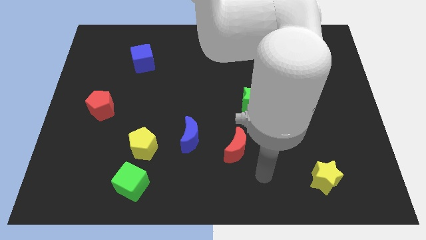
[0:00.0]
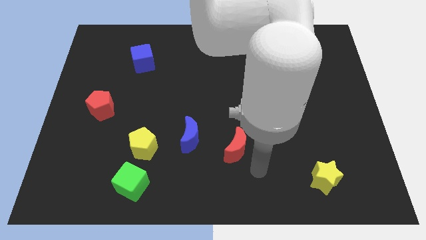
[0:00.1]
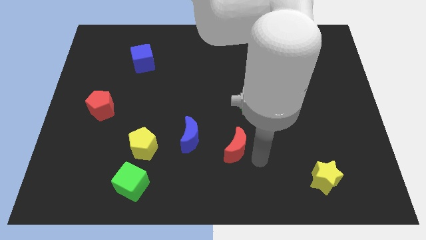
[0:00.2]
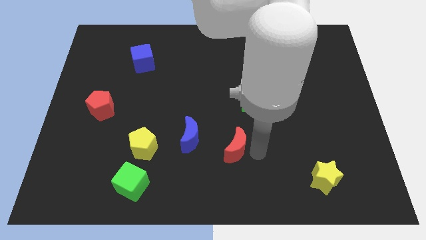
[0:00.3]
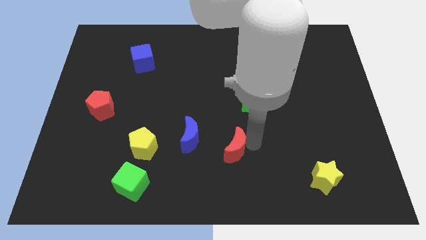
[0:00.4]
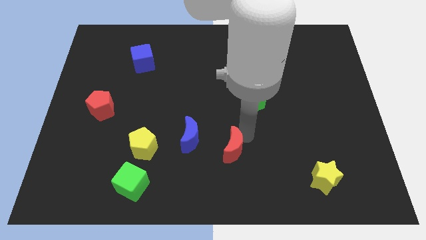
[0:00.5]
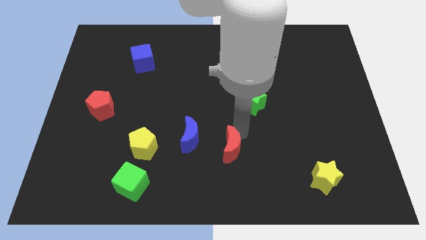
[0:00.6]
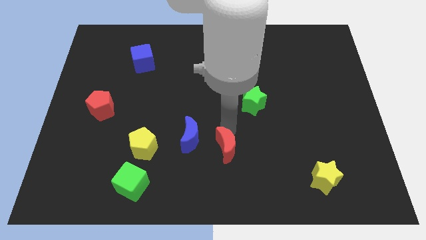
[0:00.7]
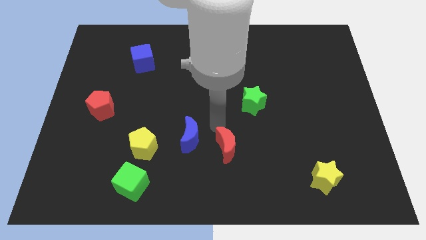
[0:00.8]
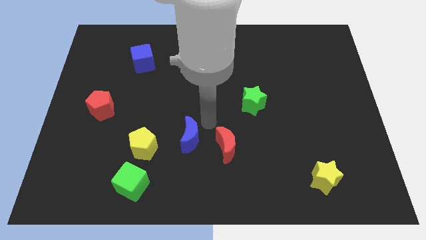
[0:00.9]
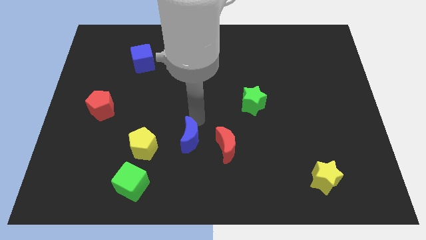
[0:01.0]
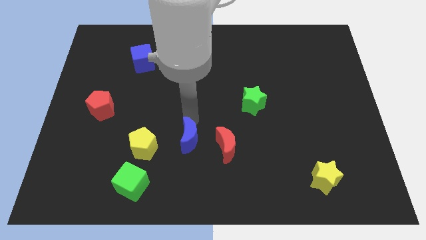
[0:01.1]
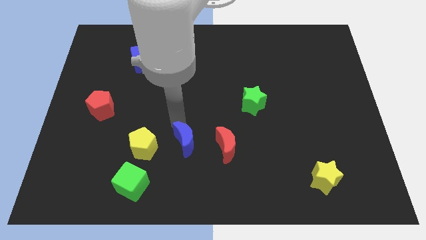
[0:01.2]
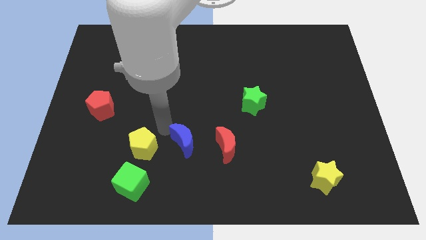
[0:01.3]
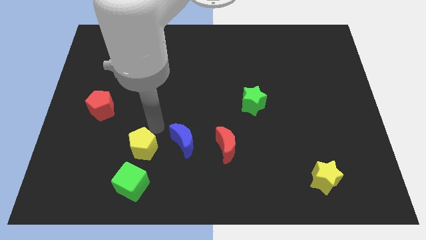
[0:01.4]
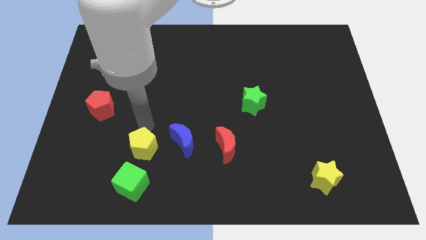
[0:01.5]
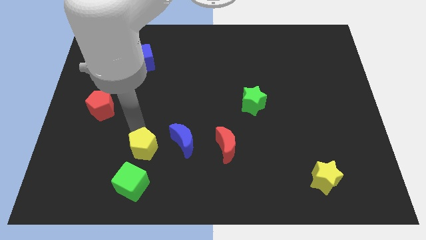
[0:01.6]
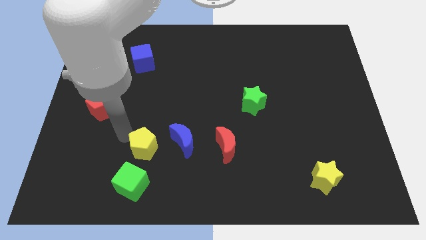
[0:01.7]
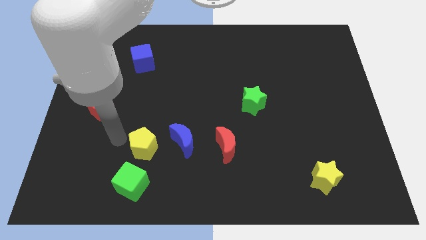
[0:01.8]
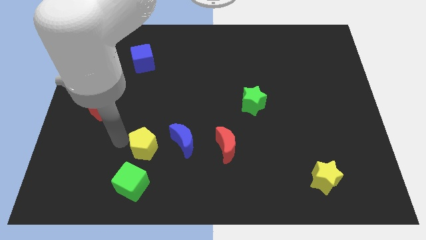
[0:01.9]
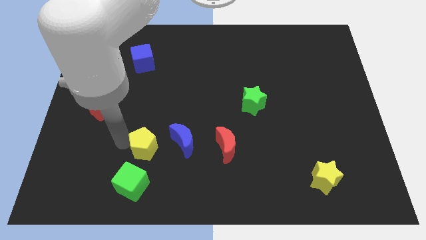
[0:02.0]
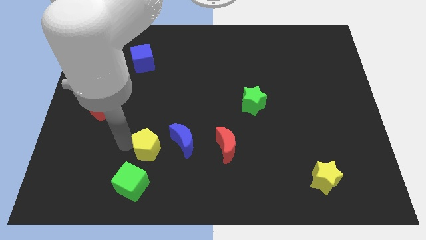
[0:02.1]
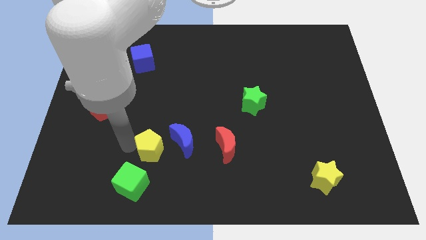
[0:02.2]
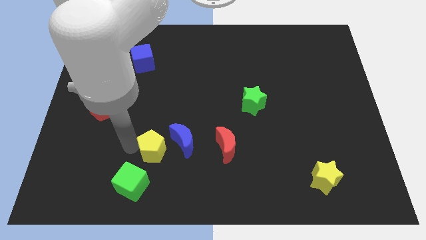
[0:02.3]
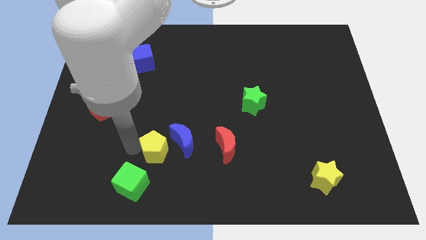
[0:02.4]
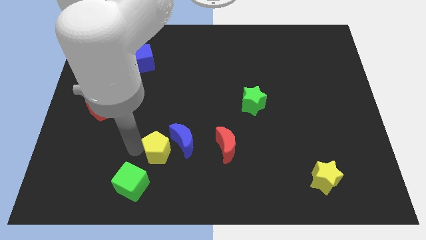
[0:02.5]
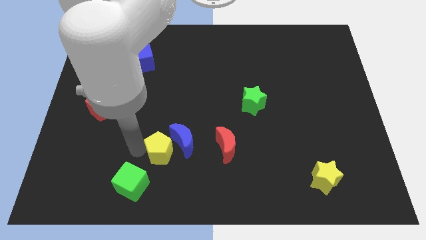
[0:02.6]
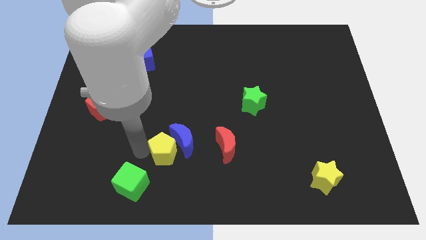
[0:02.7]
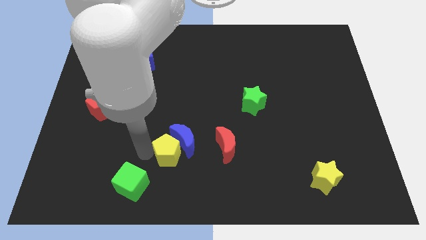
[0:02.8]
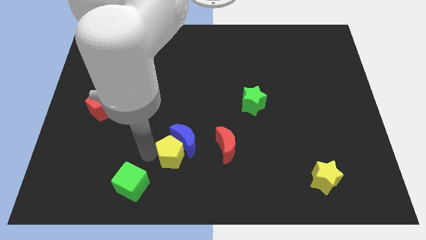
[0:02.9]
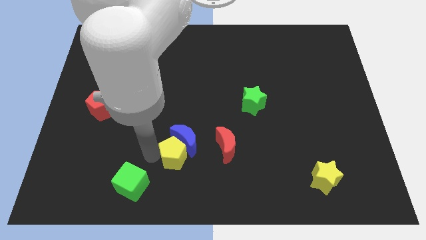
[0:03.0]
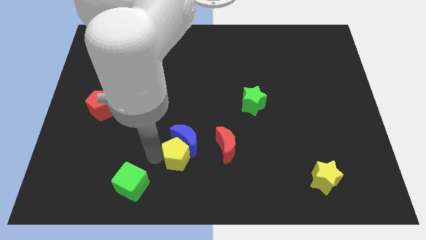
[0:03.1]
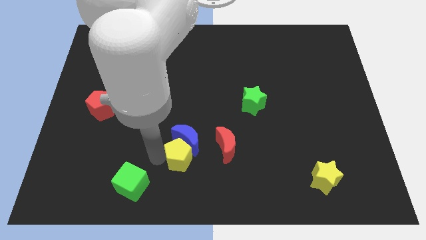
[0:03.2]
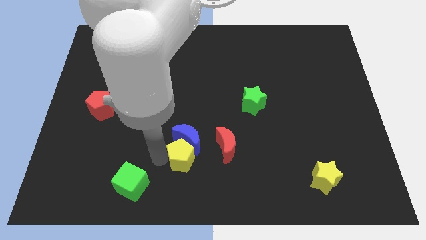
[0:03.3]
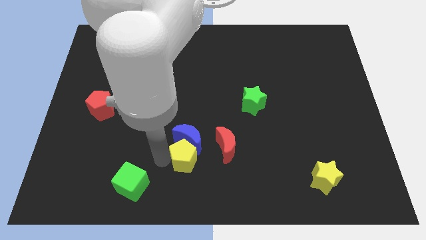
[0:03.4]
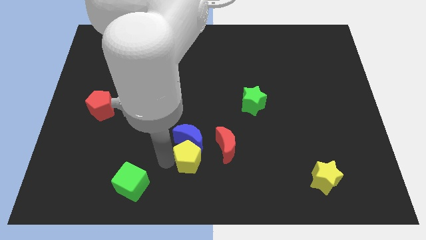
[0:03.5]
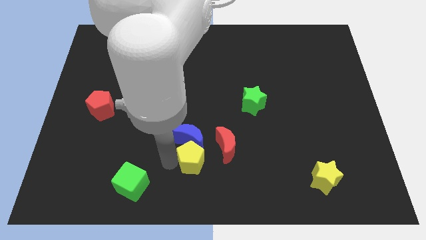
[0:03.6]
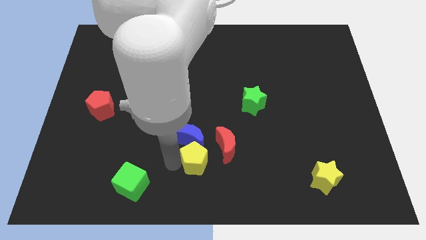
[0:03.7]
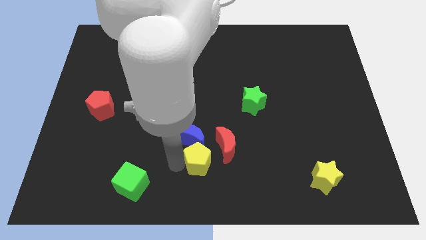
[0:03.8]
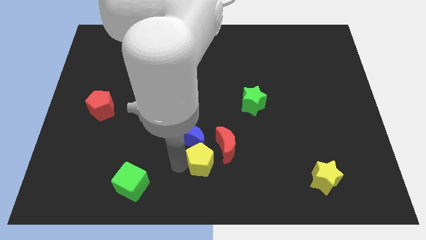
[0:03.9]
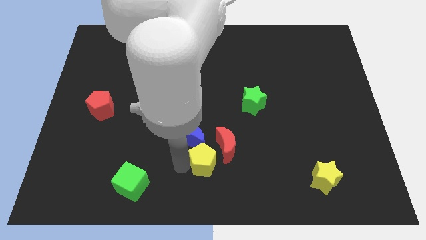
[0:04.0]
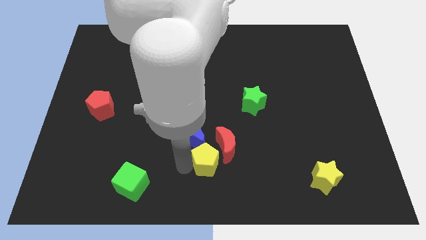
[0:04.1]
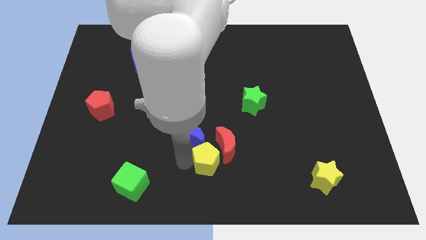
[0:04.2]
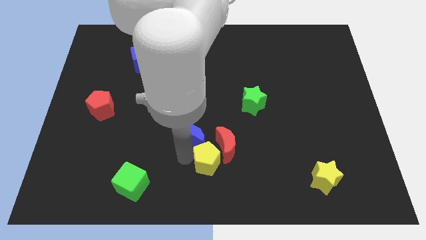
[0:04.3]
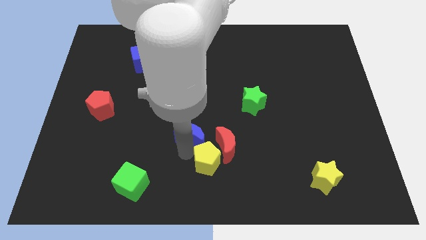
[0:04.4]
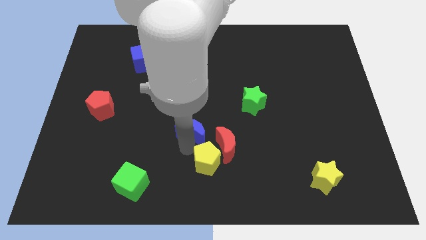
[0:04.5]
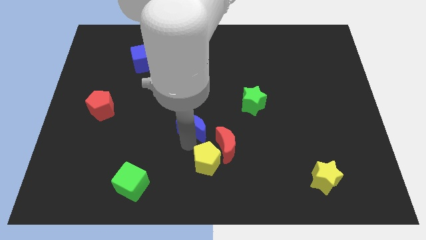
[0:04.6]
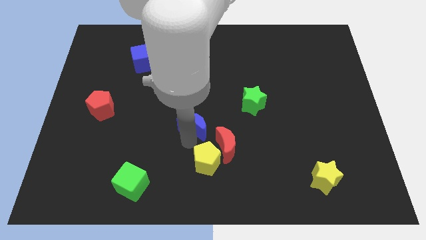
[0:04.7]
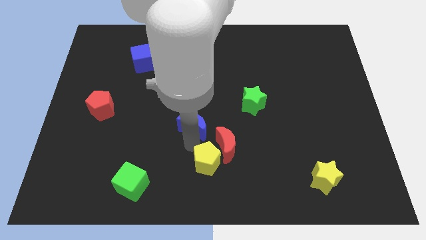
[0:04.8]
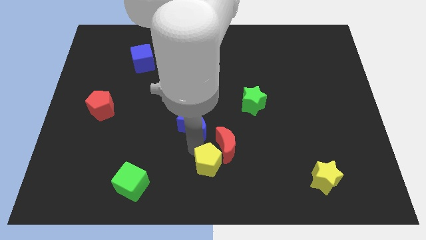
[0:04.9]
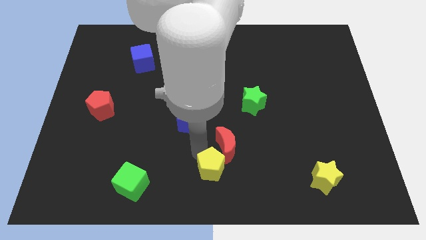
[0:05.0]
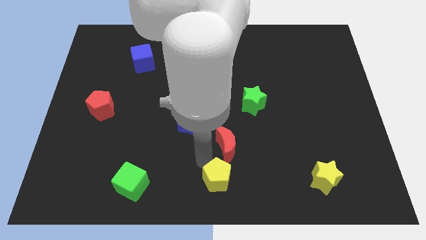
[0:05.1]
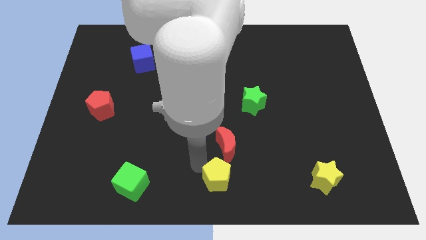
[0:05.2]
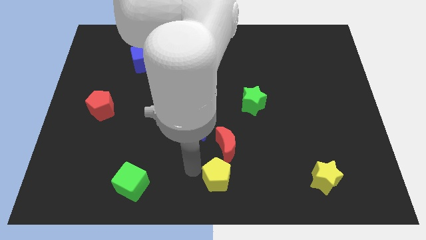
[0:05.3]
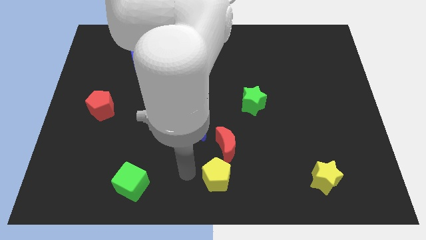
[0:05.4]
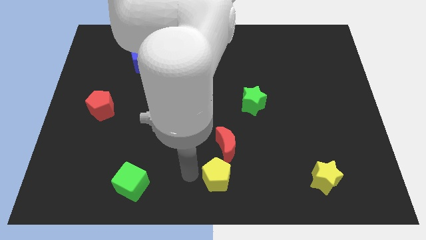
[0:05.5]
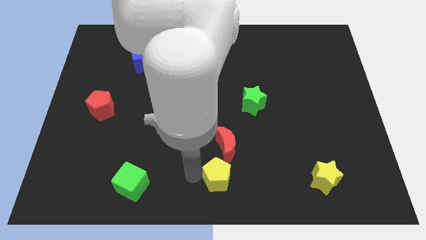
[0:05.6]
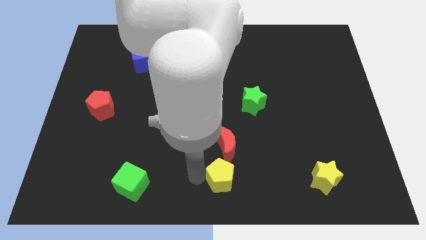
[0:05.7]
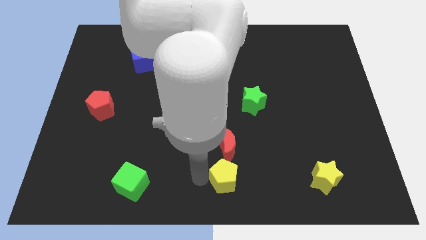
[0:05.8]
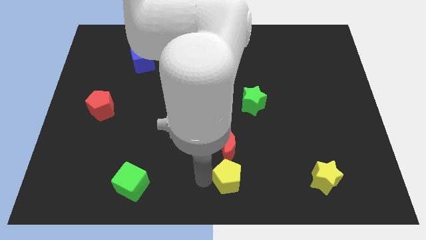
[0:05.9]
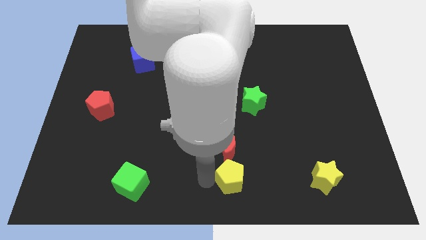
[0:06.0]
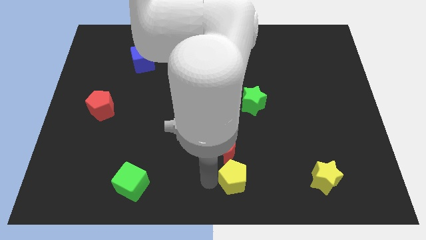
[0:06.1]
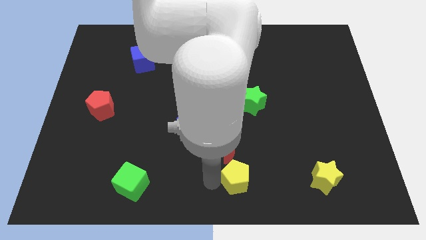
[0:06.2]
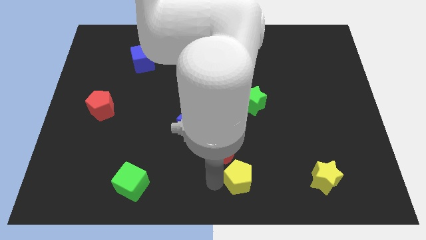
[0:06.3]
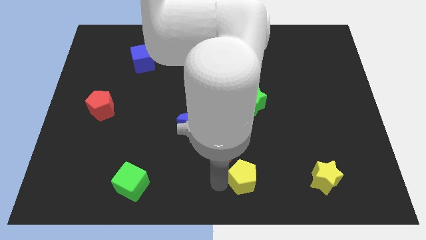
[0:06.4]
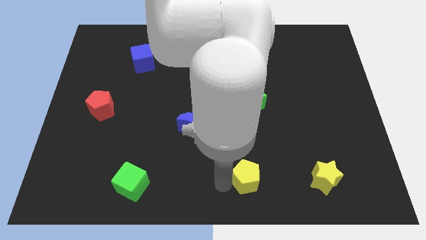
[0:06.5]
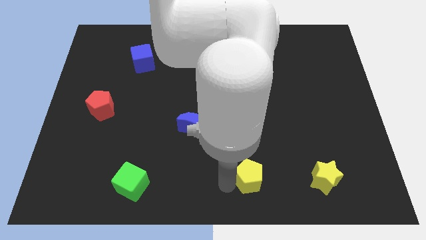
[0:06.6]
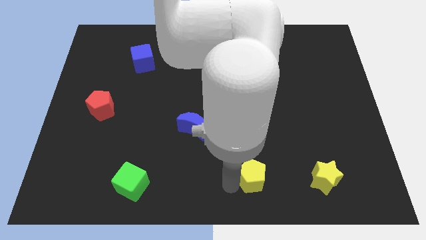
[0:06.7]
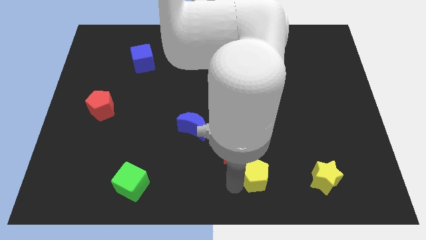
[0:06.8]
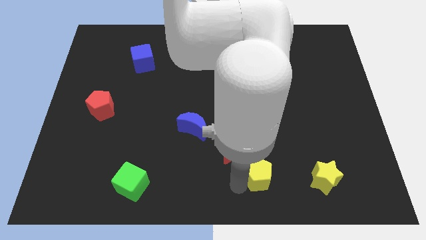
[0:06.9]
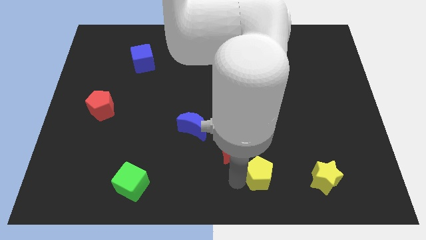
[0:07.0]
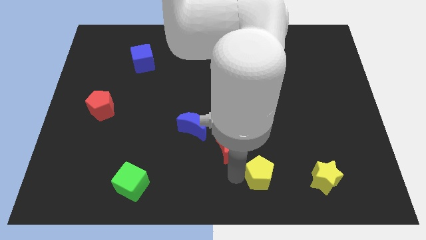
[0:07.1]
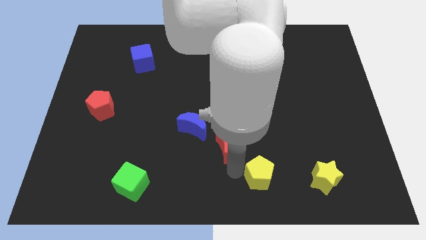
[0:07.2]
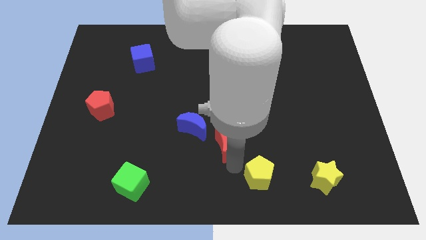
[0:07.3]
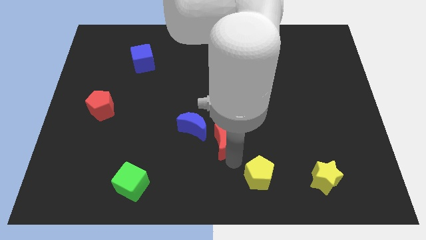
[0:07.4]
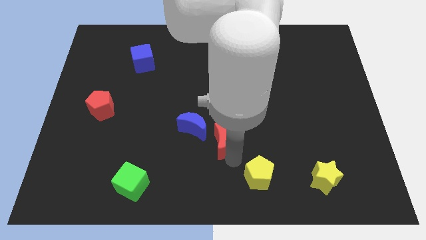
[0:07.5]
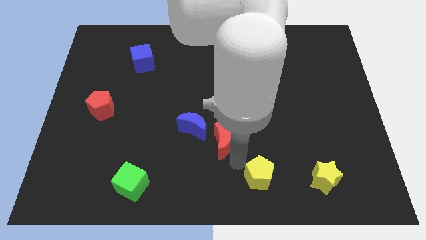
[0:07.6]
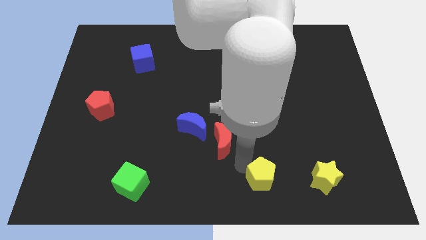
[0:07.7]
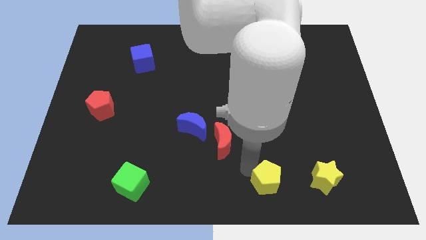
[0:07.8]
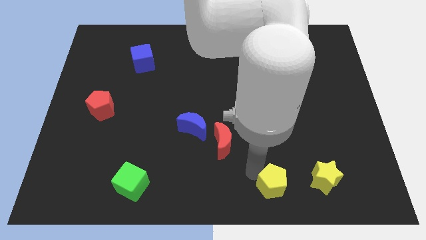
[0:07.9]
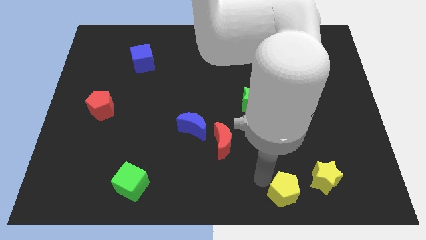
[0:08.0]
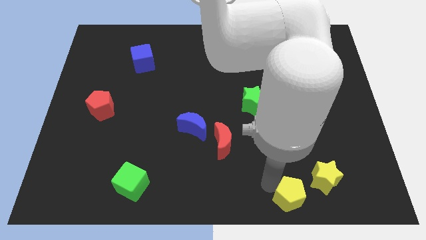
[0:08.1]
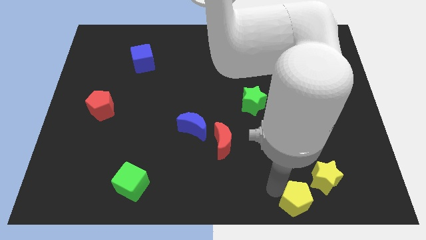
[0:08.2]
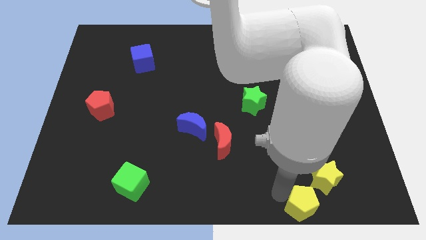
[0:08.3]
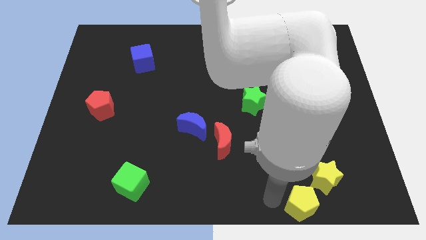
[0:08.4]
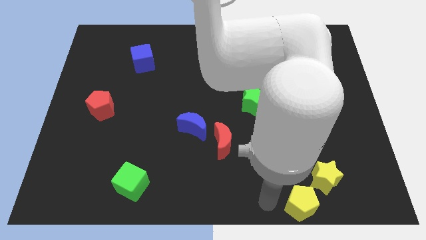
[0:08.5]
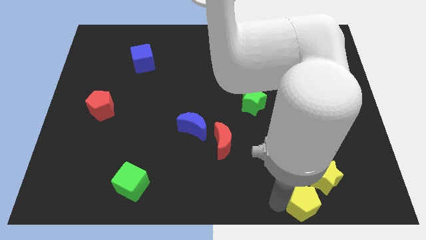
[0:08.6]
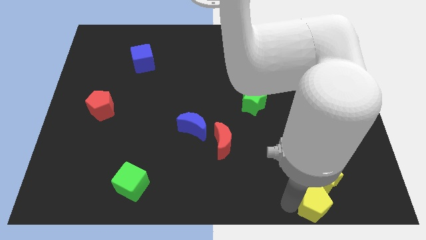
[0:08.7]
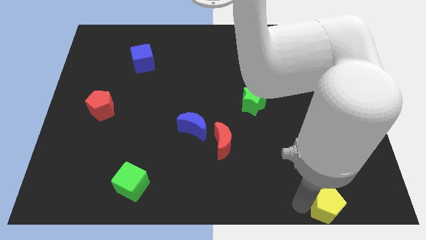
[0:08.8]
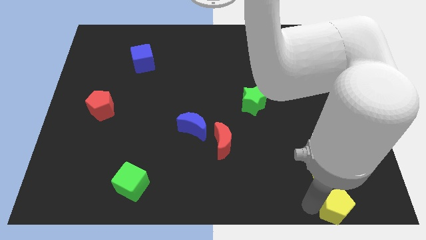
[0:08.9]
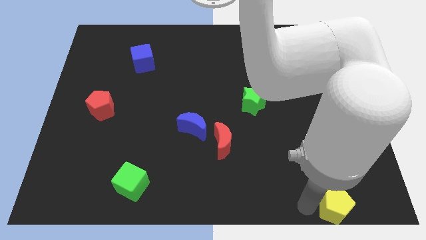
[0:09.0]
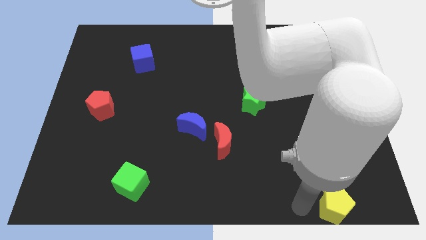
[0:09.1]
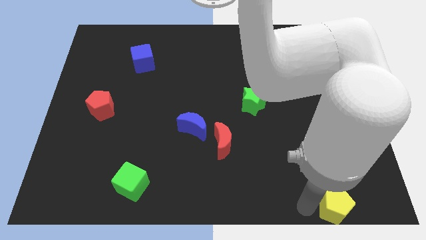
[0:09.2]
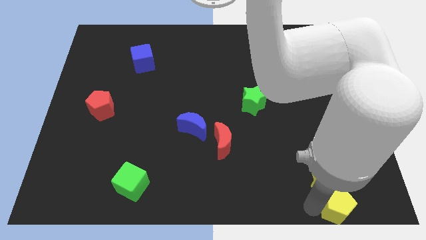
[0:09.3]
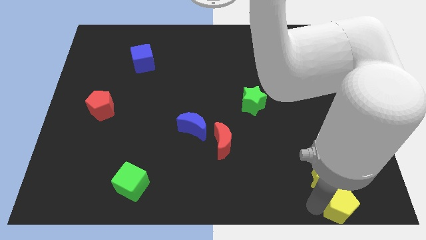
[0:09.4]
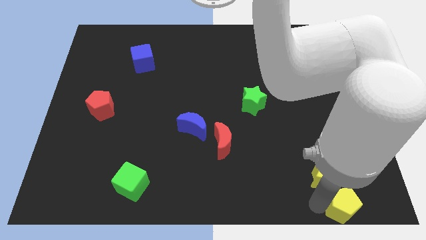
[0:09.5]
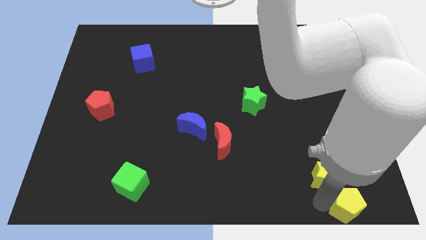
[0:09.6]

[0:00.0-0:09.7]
push the yellow pentagon to the bottom right corner
